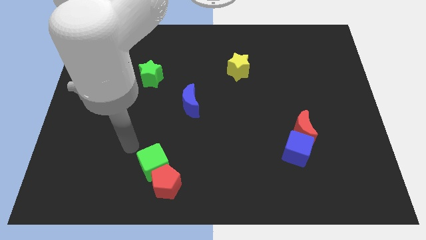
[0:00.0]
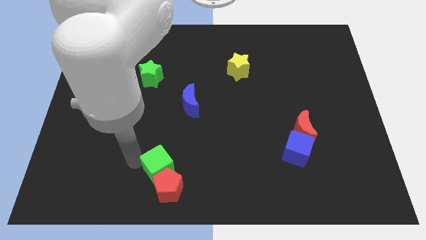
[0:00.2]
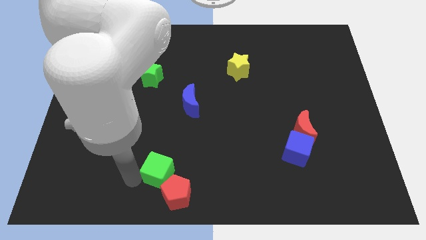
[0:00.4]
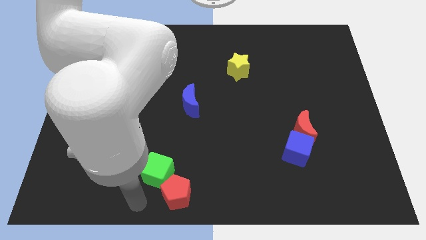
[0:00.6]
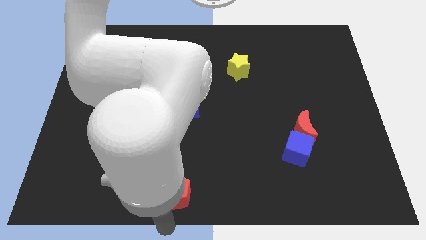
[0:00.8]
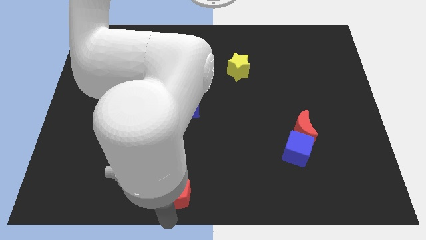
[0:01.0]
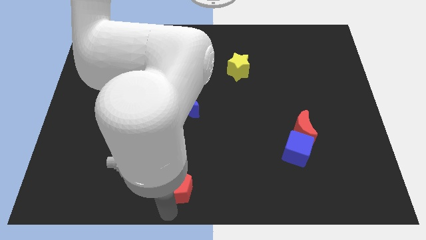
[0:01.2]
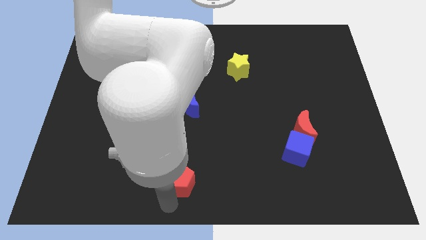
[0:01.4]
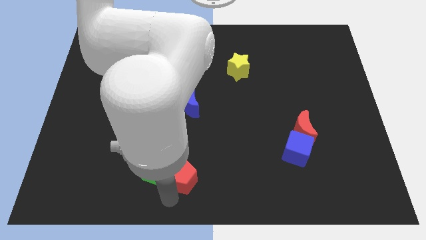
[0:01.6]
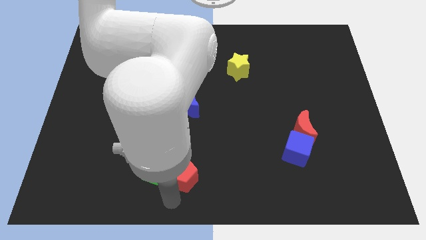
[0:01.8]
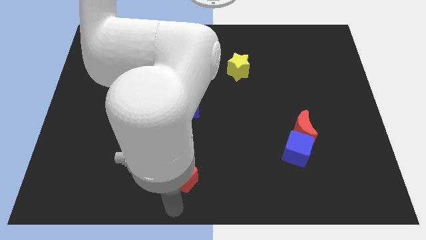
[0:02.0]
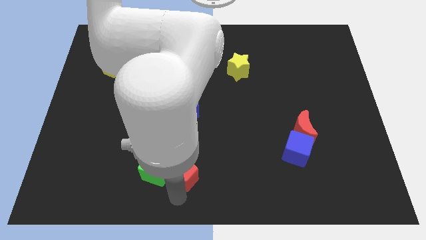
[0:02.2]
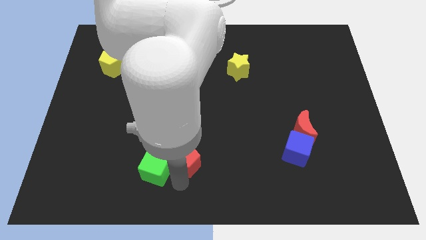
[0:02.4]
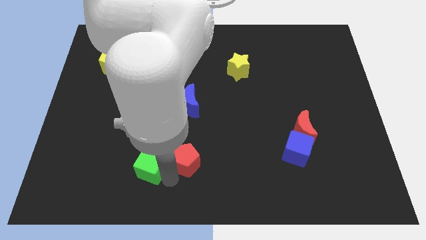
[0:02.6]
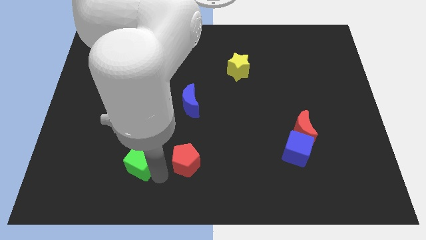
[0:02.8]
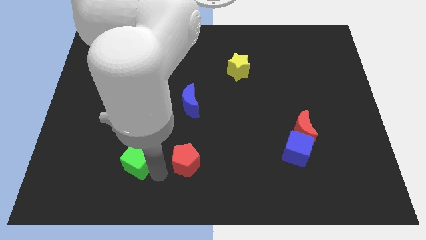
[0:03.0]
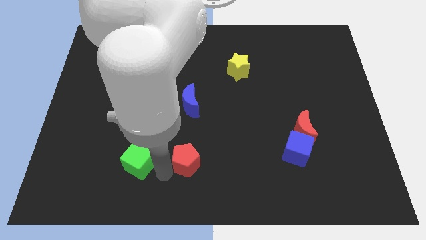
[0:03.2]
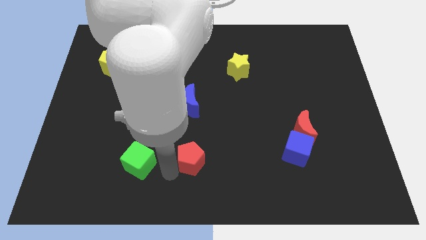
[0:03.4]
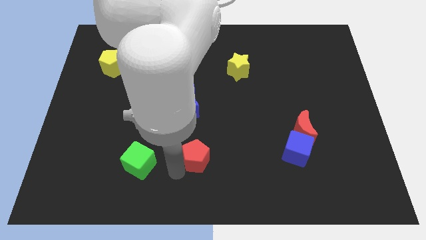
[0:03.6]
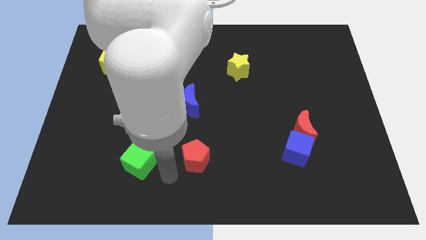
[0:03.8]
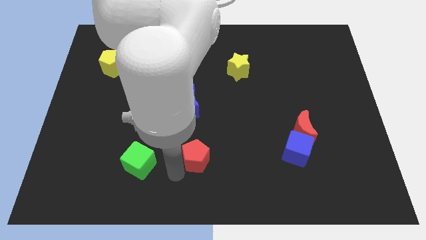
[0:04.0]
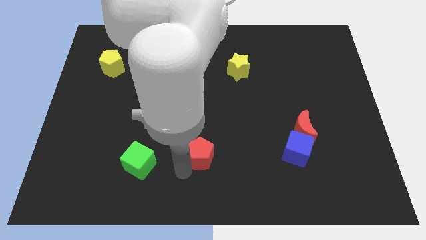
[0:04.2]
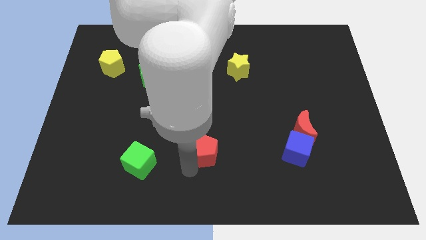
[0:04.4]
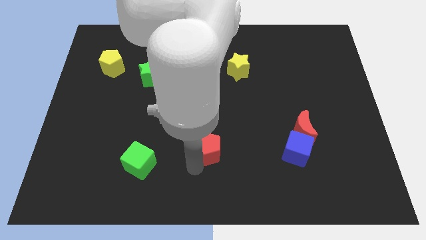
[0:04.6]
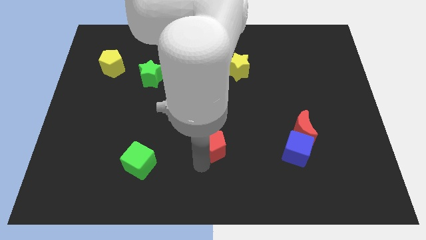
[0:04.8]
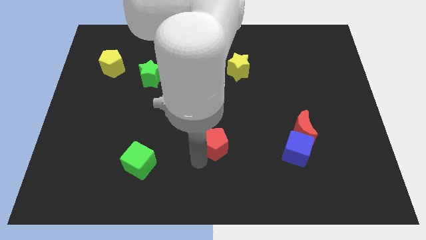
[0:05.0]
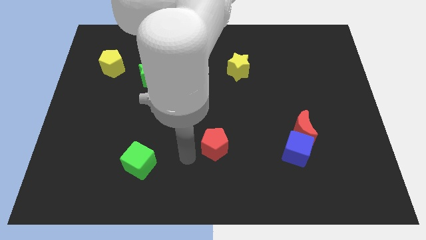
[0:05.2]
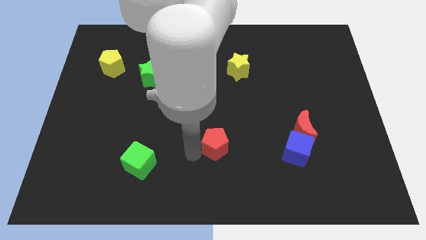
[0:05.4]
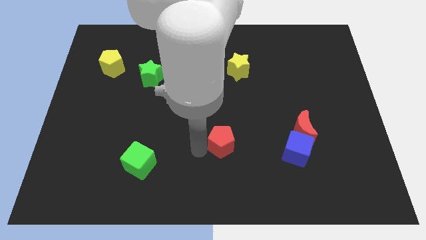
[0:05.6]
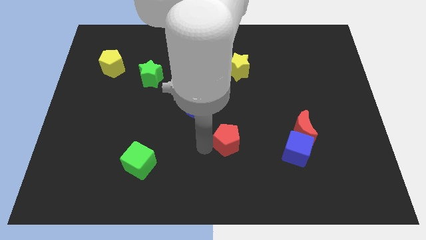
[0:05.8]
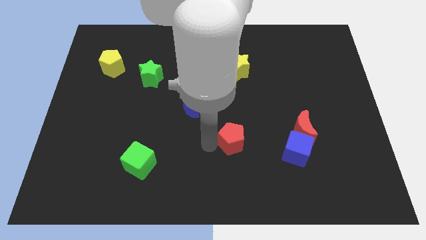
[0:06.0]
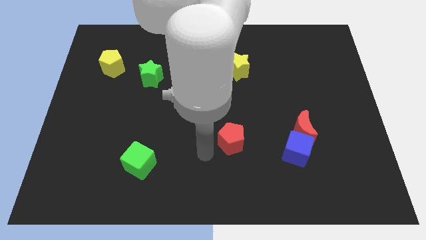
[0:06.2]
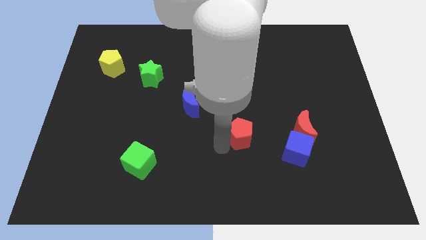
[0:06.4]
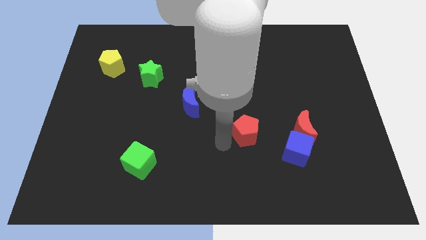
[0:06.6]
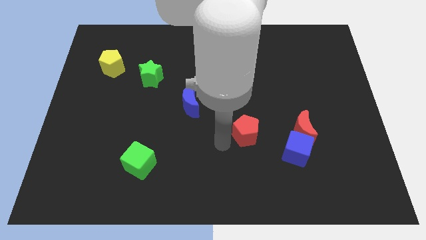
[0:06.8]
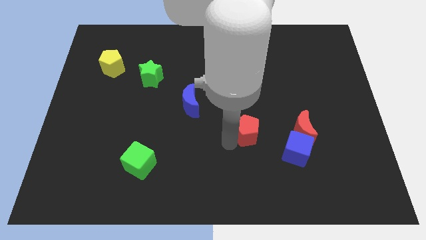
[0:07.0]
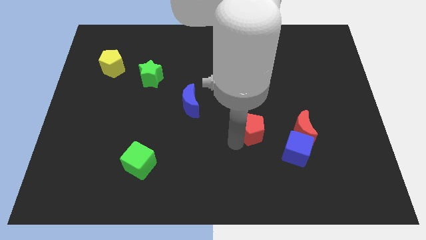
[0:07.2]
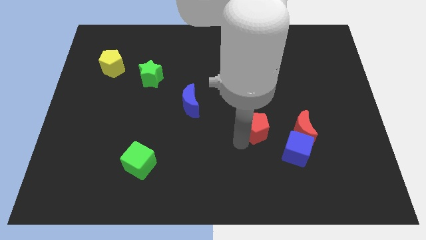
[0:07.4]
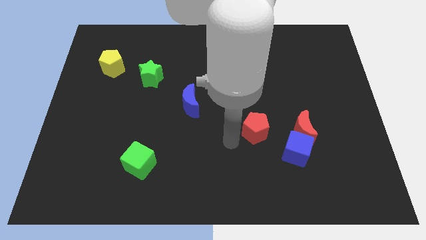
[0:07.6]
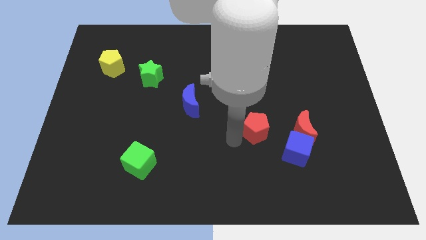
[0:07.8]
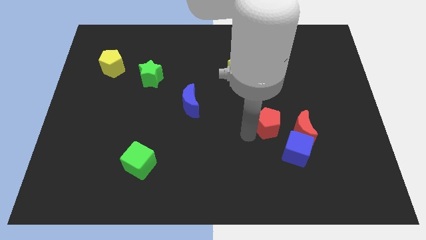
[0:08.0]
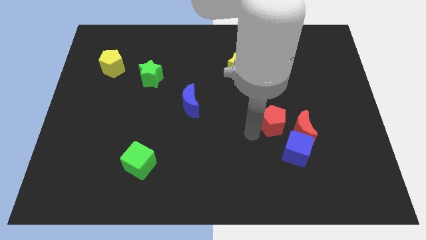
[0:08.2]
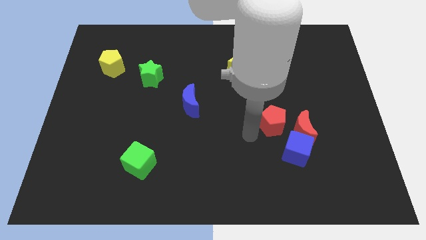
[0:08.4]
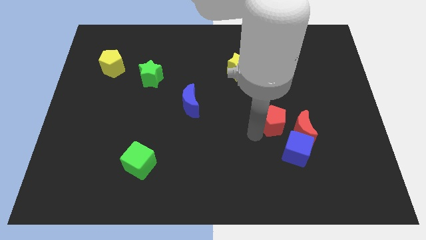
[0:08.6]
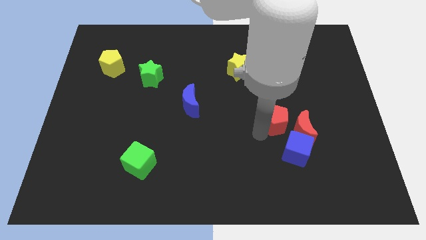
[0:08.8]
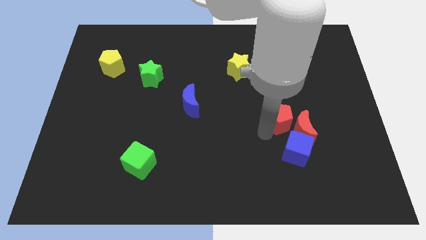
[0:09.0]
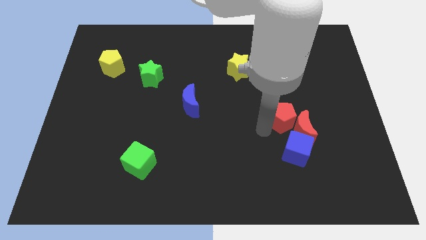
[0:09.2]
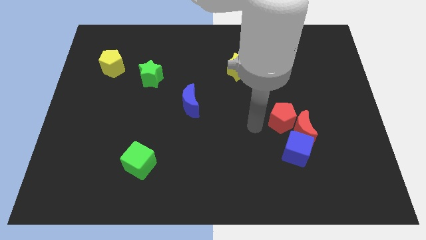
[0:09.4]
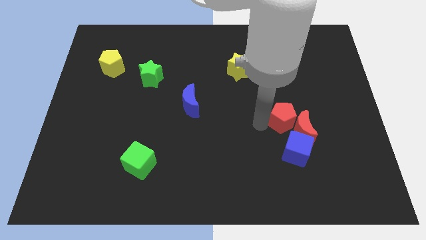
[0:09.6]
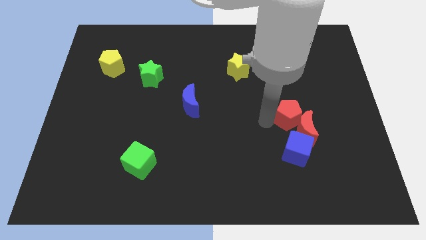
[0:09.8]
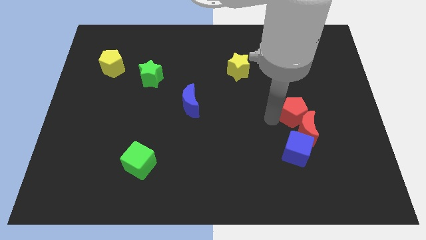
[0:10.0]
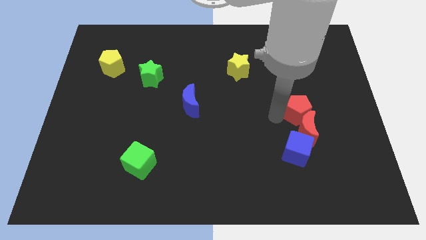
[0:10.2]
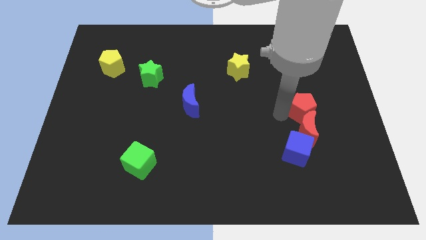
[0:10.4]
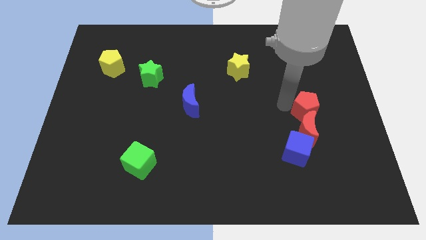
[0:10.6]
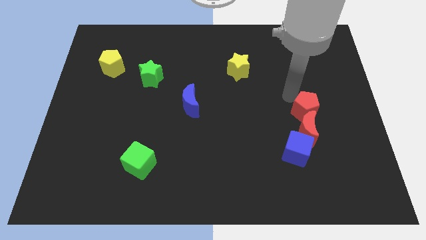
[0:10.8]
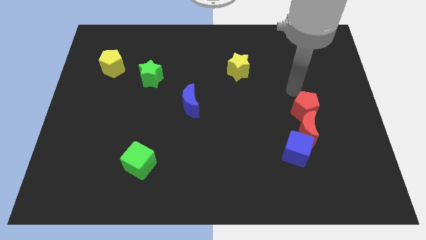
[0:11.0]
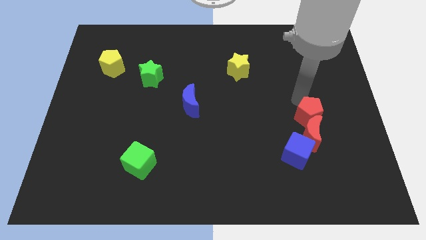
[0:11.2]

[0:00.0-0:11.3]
slide the red pentagon to the top right side of the blue cube

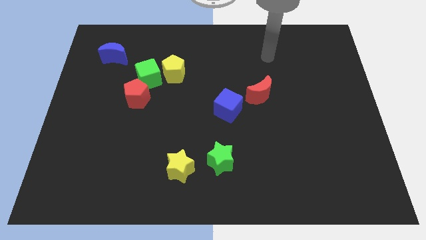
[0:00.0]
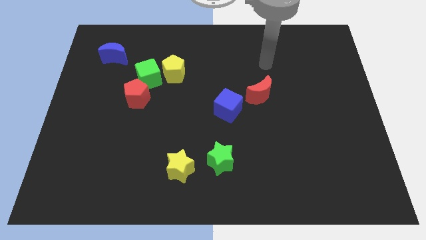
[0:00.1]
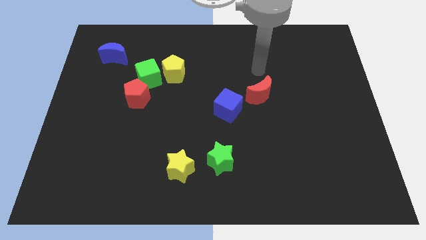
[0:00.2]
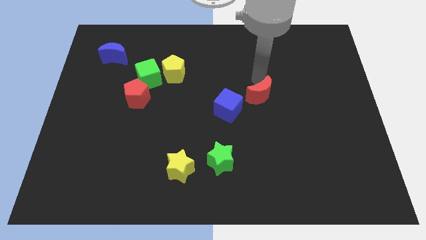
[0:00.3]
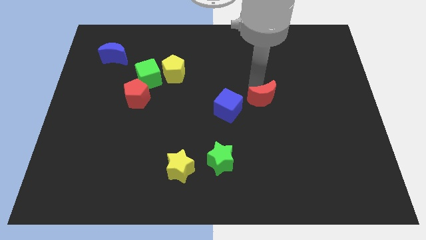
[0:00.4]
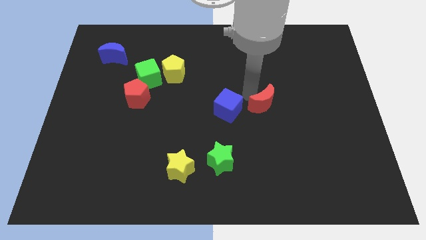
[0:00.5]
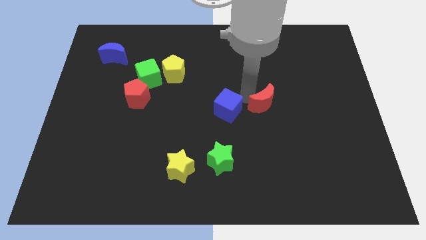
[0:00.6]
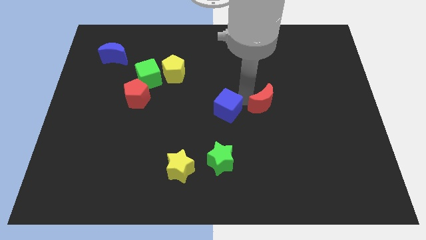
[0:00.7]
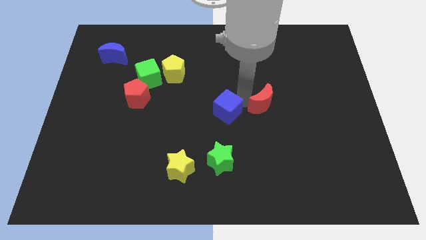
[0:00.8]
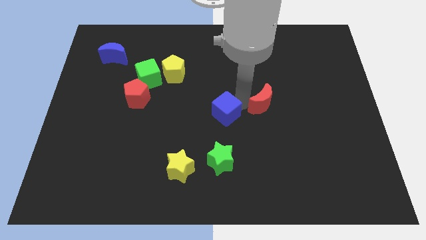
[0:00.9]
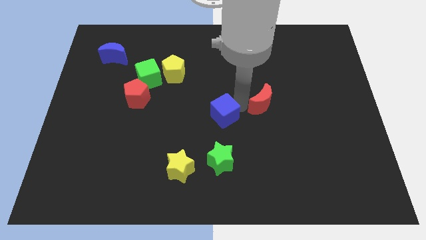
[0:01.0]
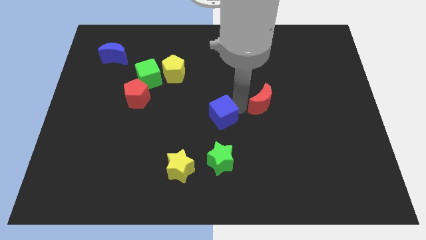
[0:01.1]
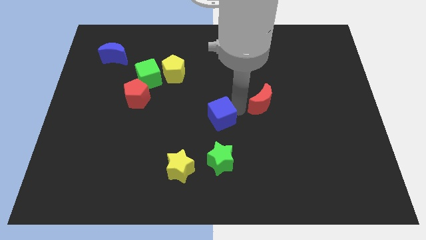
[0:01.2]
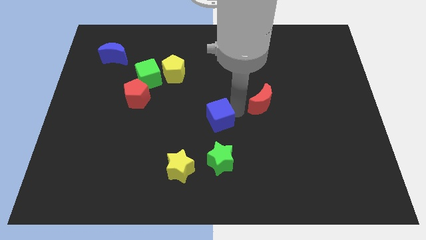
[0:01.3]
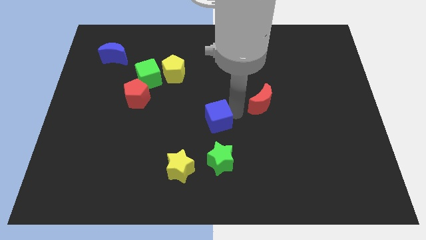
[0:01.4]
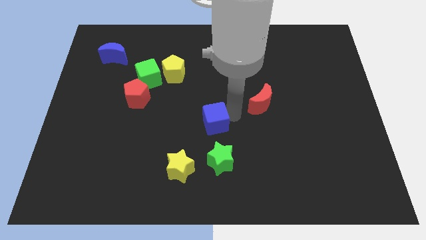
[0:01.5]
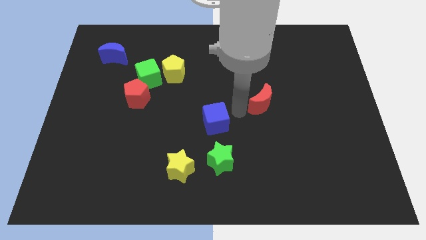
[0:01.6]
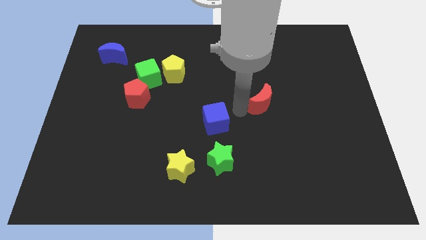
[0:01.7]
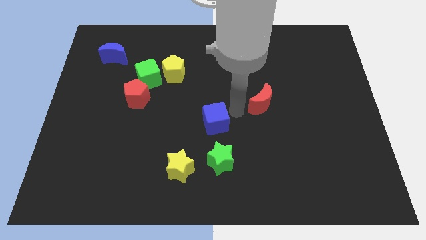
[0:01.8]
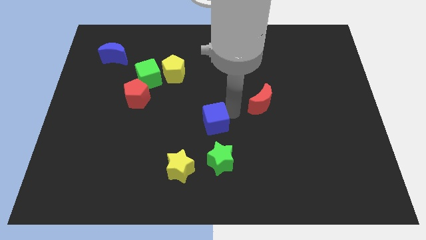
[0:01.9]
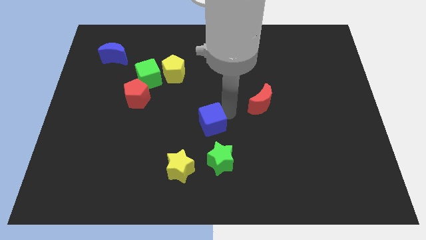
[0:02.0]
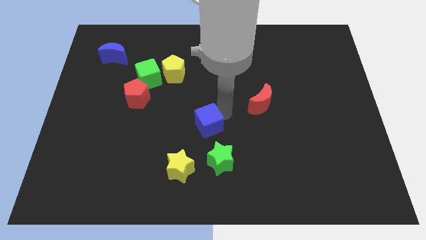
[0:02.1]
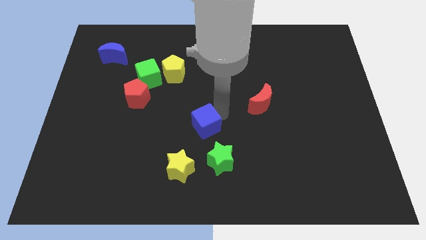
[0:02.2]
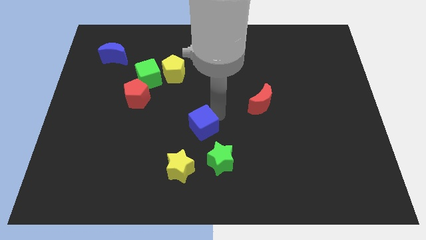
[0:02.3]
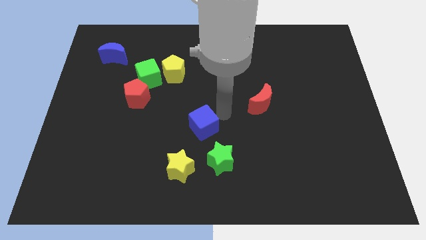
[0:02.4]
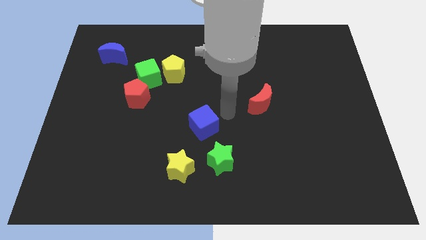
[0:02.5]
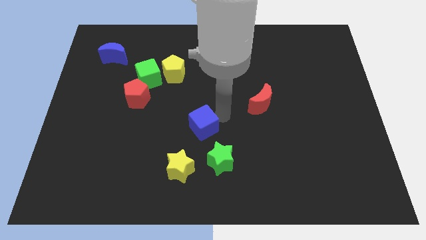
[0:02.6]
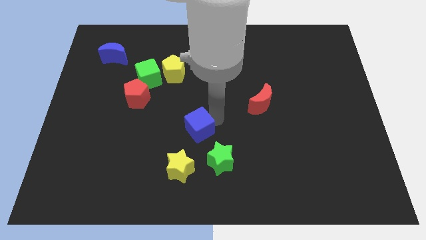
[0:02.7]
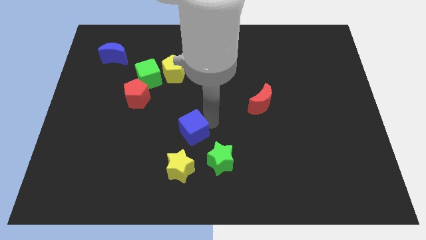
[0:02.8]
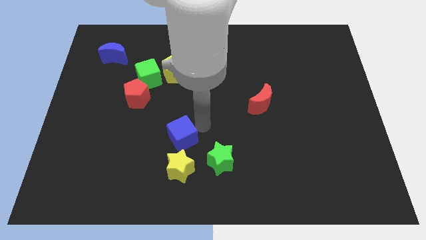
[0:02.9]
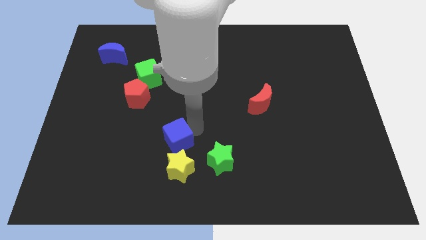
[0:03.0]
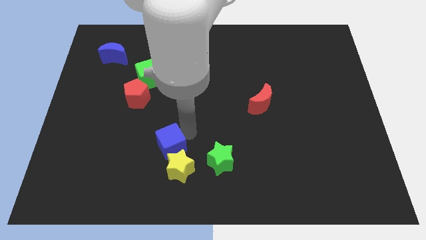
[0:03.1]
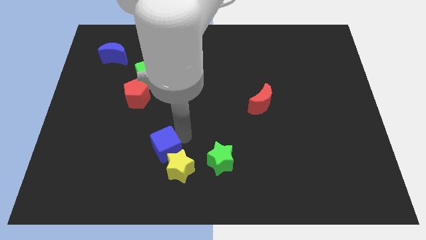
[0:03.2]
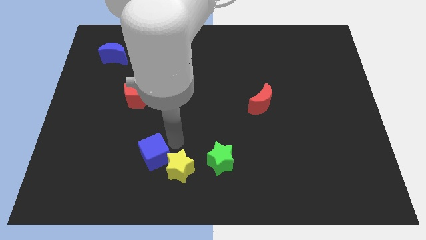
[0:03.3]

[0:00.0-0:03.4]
slide the blue cube to the left of the yellow star
